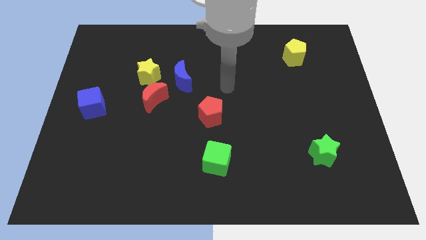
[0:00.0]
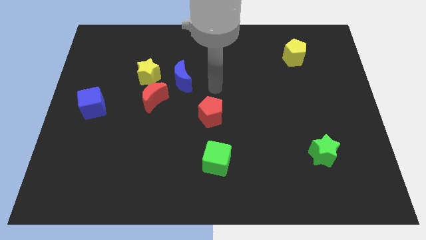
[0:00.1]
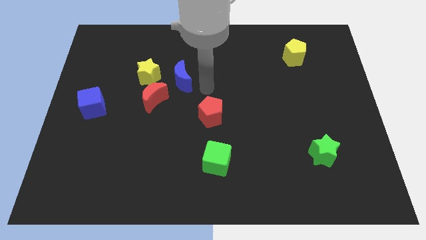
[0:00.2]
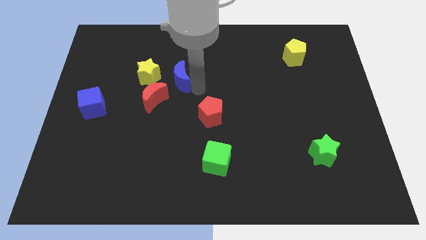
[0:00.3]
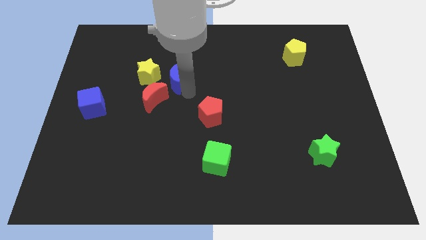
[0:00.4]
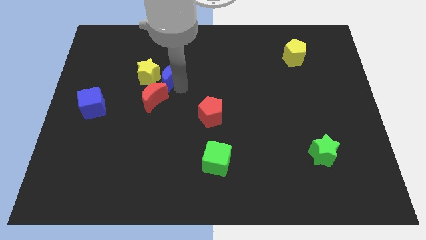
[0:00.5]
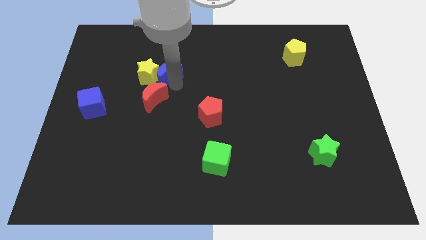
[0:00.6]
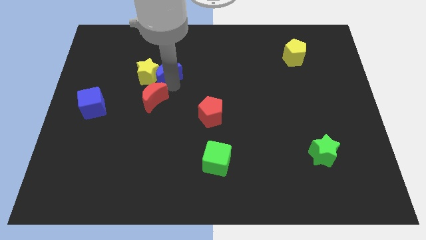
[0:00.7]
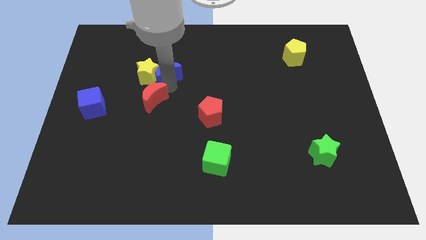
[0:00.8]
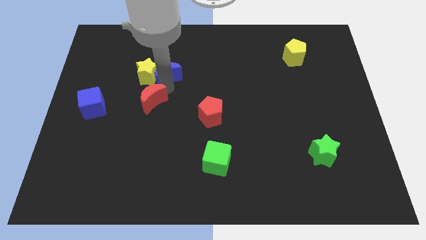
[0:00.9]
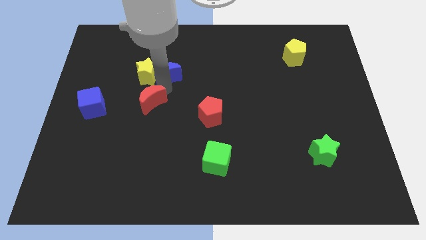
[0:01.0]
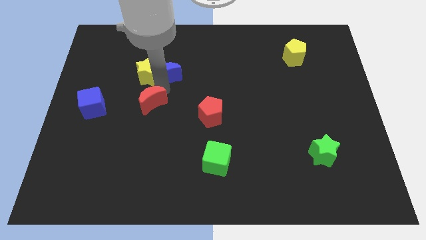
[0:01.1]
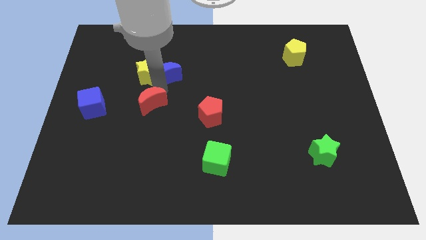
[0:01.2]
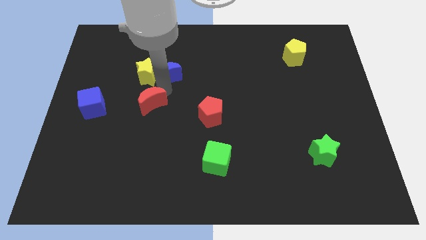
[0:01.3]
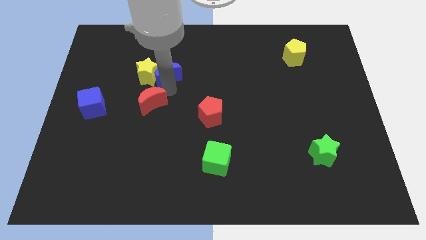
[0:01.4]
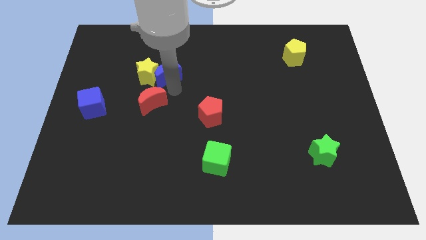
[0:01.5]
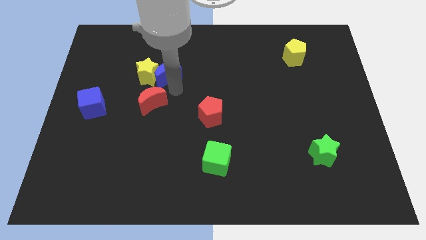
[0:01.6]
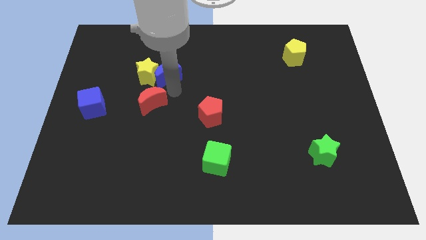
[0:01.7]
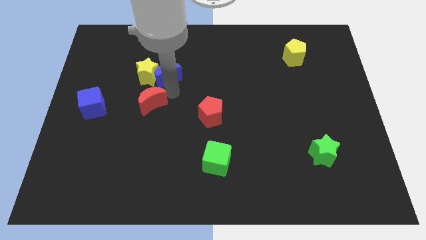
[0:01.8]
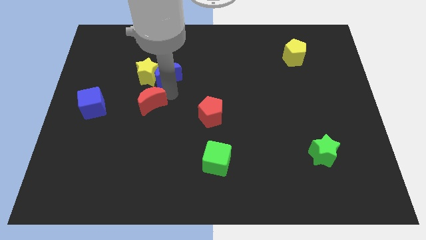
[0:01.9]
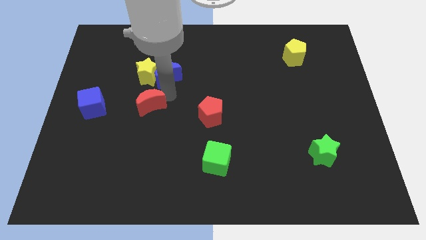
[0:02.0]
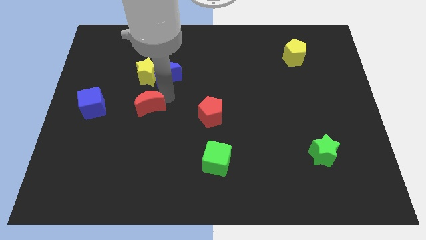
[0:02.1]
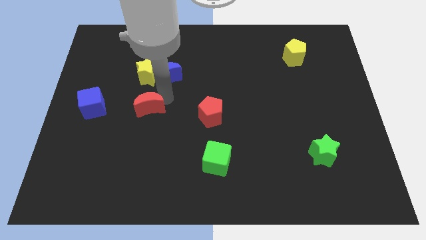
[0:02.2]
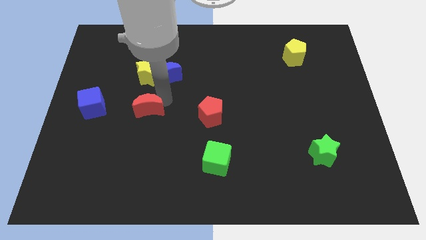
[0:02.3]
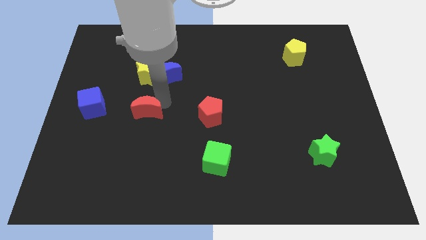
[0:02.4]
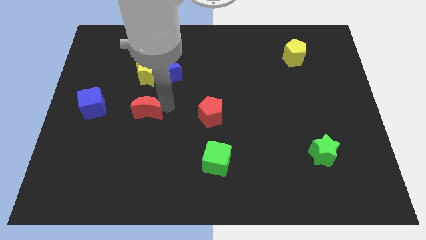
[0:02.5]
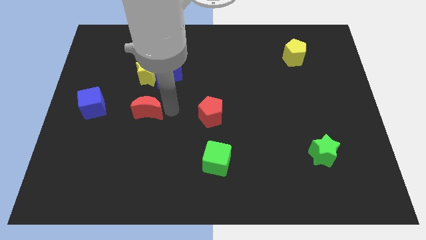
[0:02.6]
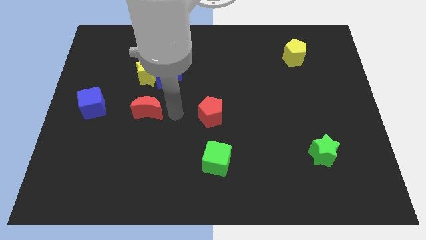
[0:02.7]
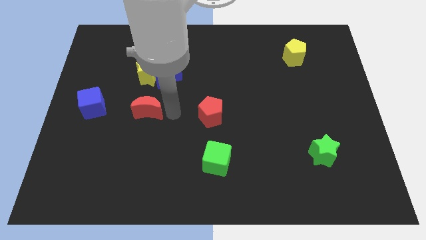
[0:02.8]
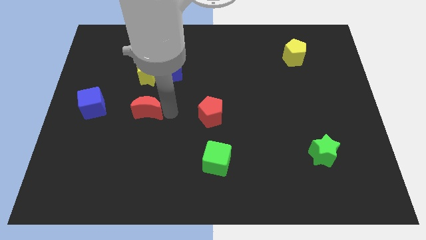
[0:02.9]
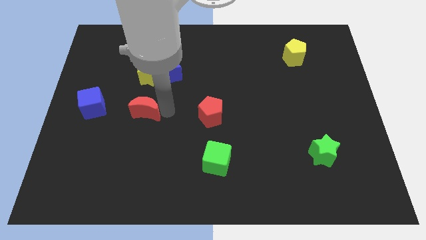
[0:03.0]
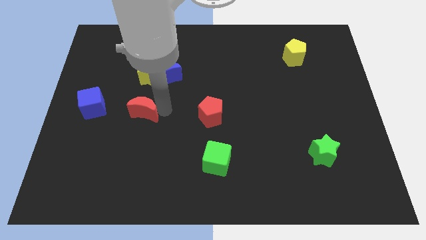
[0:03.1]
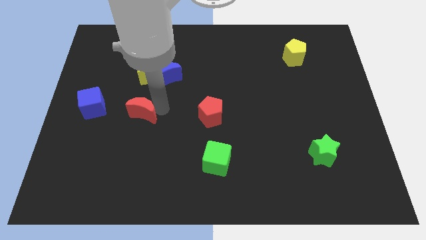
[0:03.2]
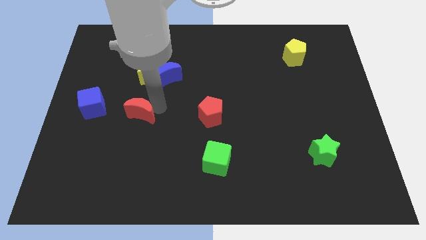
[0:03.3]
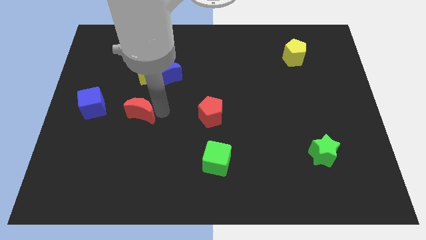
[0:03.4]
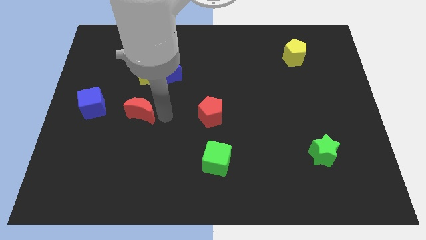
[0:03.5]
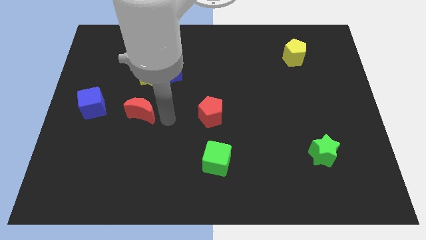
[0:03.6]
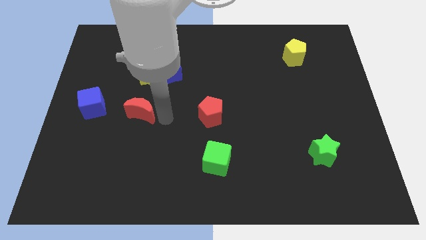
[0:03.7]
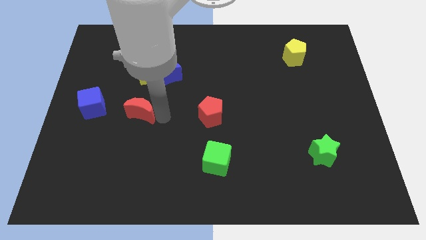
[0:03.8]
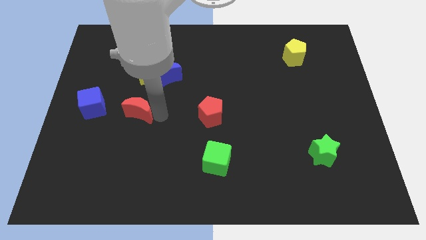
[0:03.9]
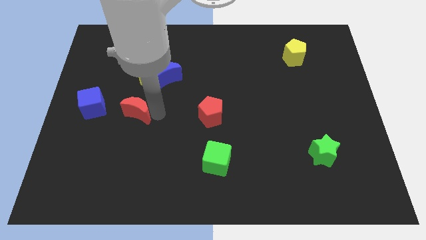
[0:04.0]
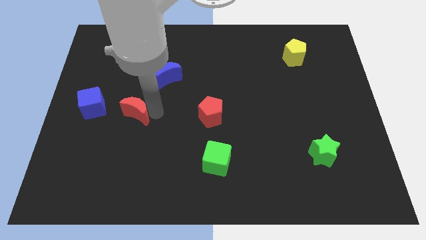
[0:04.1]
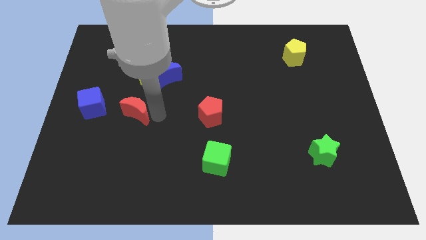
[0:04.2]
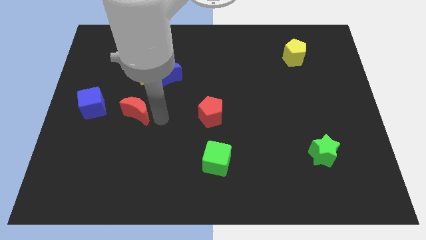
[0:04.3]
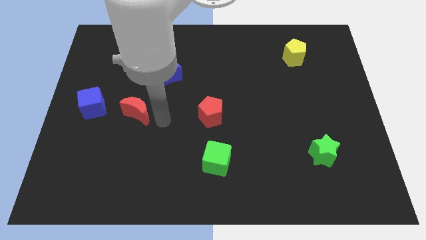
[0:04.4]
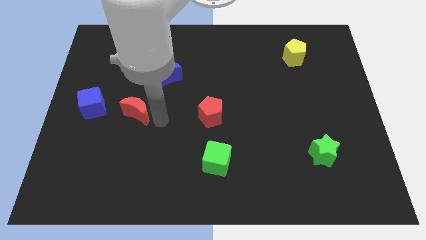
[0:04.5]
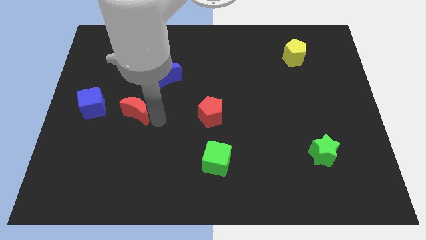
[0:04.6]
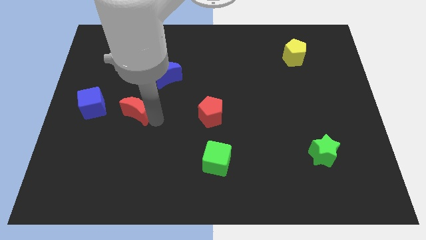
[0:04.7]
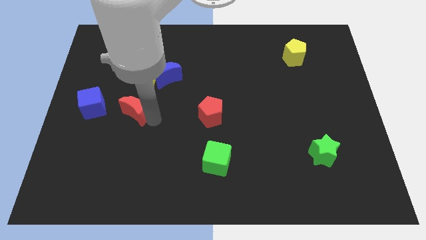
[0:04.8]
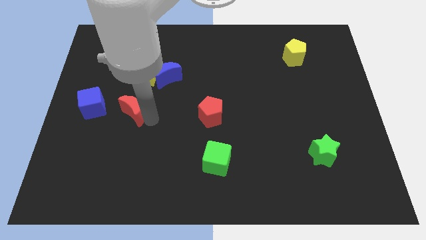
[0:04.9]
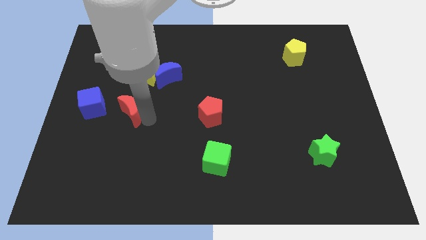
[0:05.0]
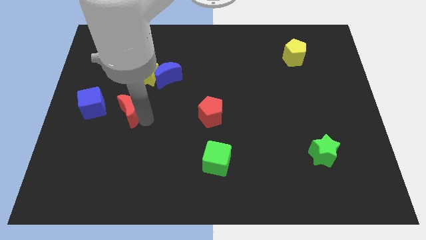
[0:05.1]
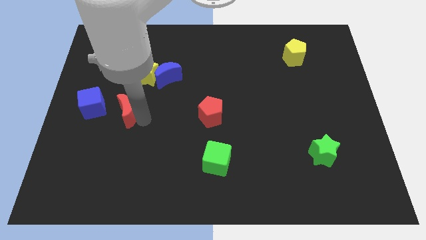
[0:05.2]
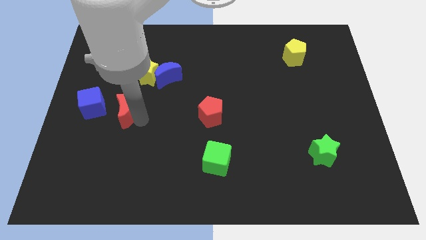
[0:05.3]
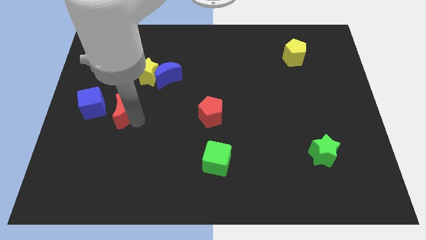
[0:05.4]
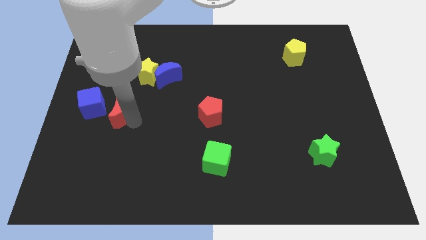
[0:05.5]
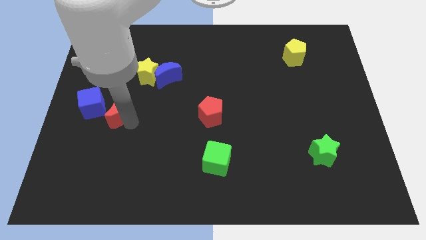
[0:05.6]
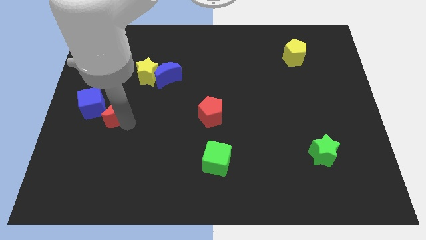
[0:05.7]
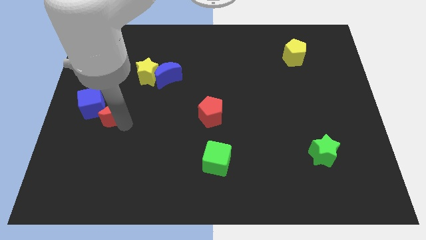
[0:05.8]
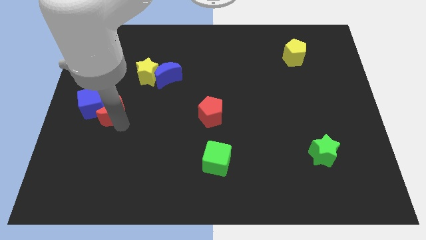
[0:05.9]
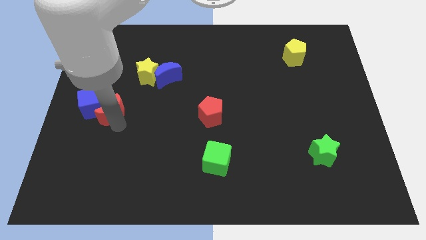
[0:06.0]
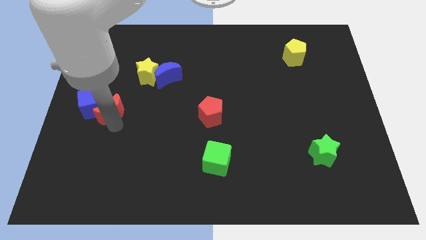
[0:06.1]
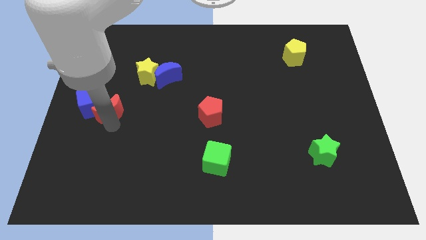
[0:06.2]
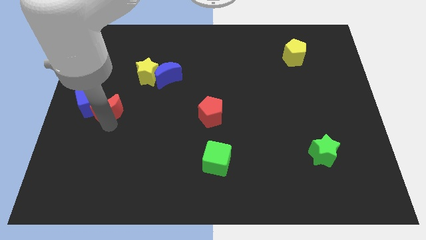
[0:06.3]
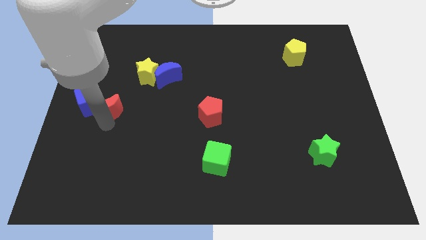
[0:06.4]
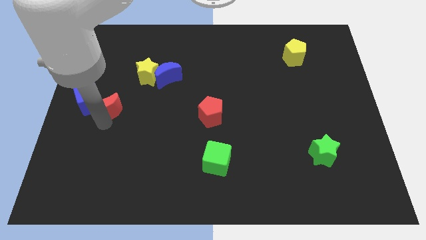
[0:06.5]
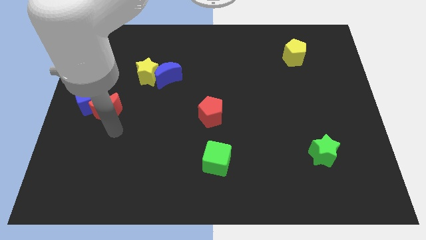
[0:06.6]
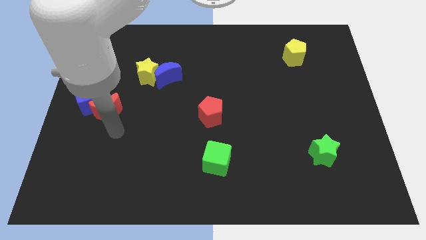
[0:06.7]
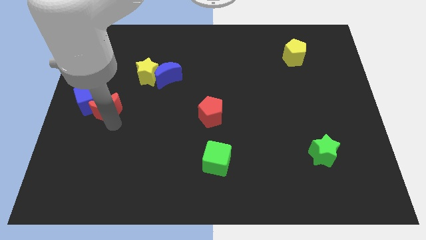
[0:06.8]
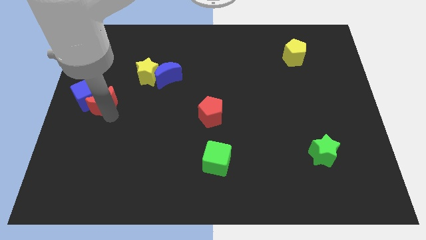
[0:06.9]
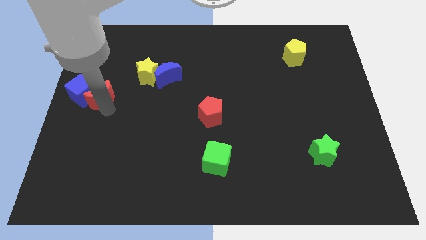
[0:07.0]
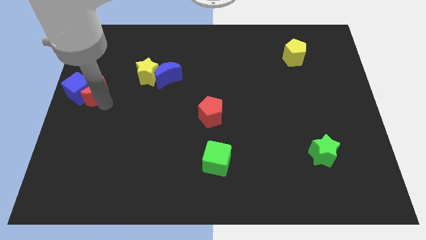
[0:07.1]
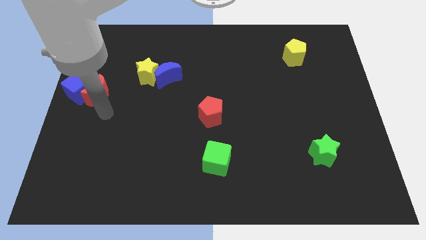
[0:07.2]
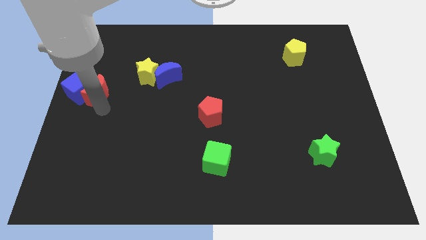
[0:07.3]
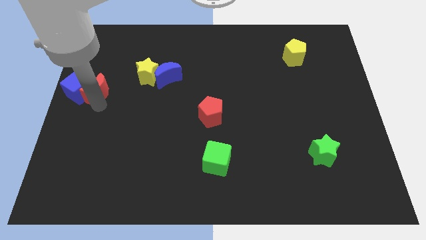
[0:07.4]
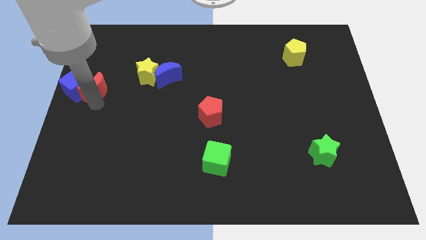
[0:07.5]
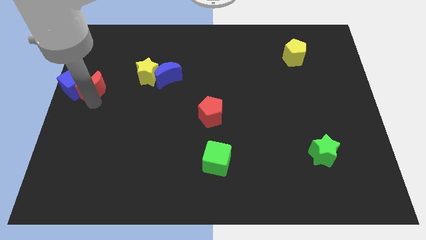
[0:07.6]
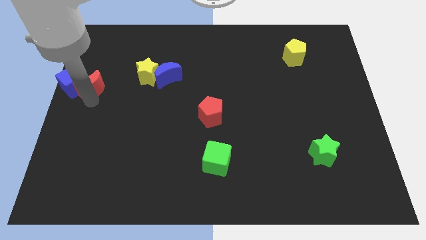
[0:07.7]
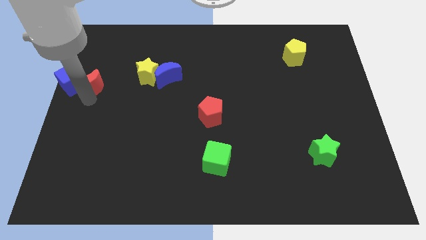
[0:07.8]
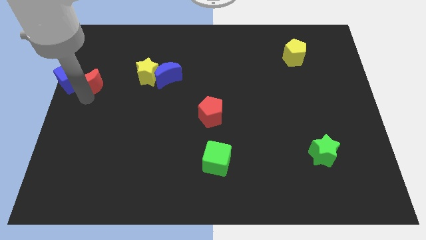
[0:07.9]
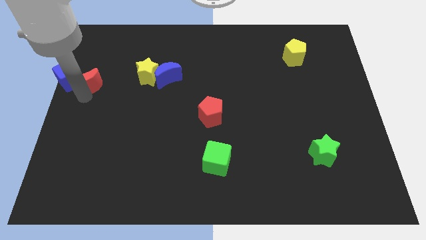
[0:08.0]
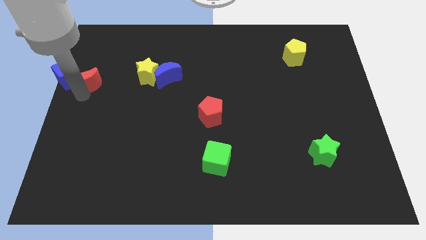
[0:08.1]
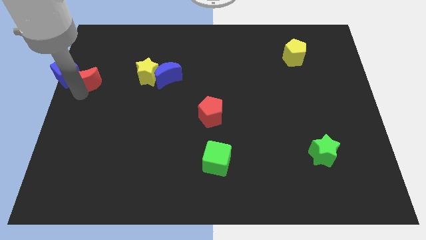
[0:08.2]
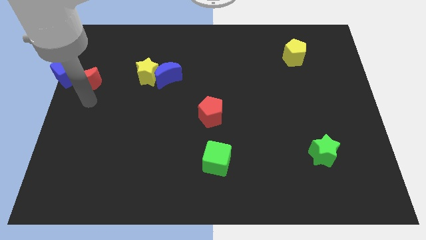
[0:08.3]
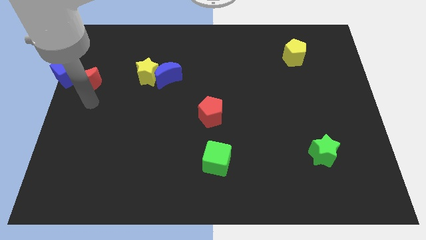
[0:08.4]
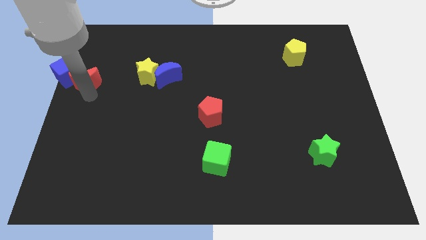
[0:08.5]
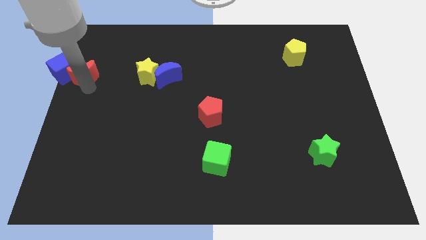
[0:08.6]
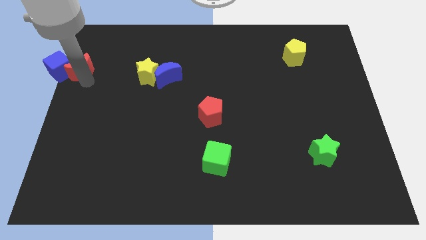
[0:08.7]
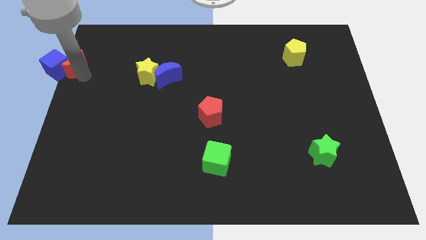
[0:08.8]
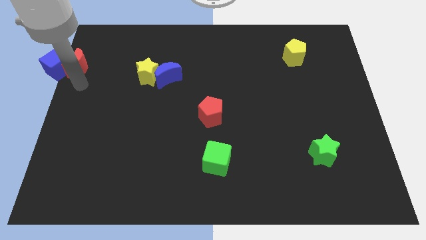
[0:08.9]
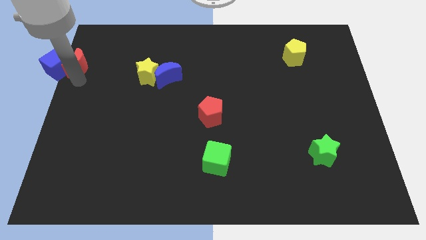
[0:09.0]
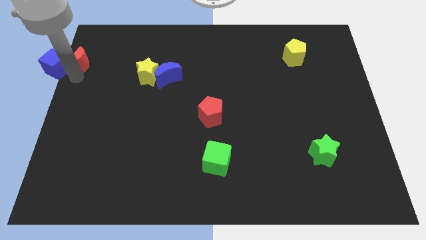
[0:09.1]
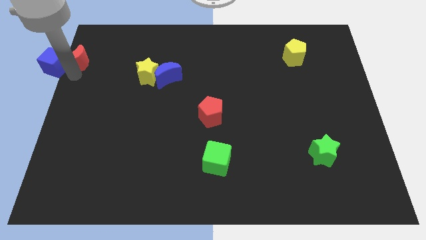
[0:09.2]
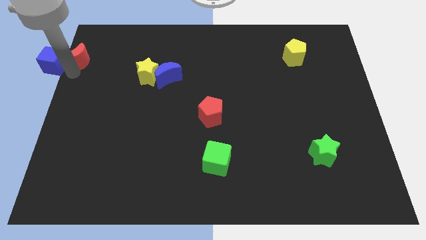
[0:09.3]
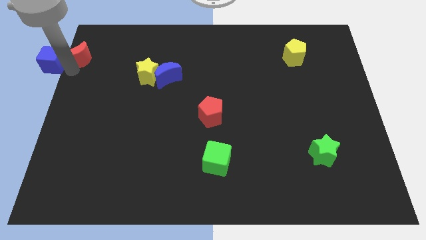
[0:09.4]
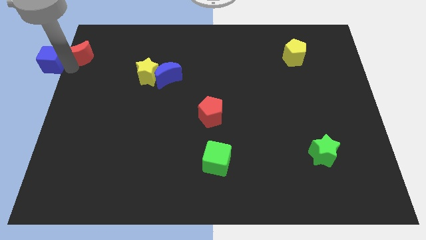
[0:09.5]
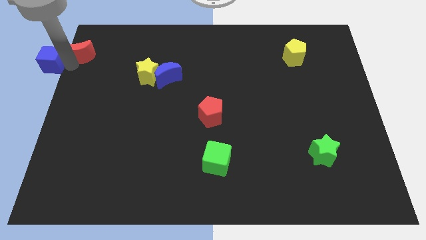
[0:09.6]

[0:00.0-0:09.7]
move the red moon to the top left corner
